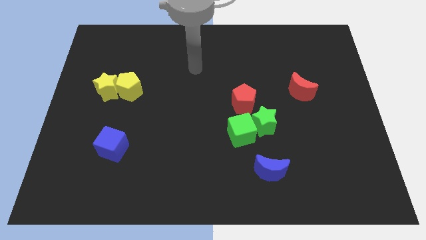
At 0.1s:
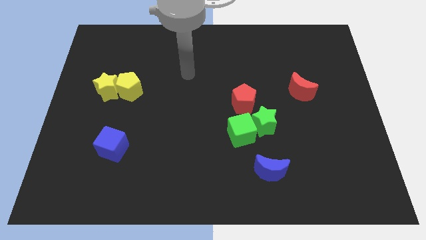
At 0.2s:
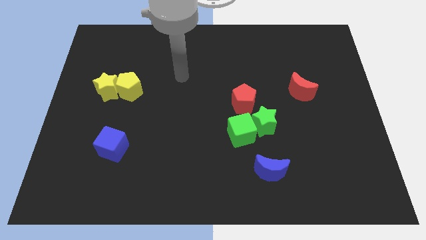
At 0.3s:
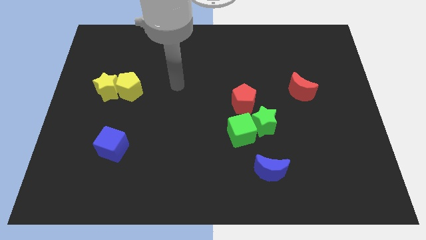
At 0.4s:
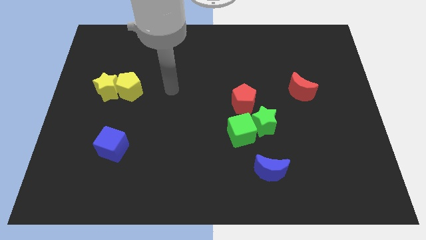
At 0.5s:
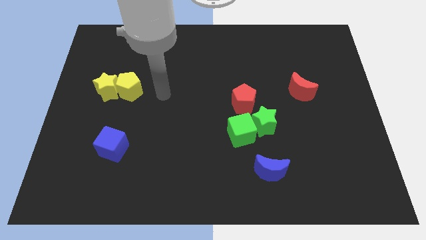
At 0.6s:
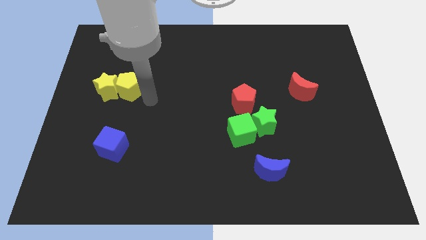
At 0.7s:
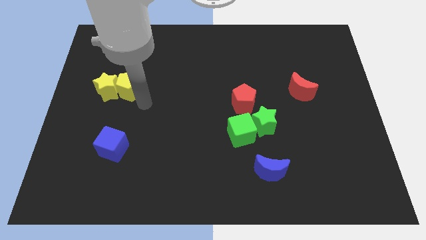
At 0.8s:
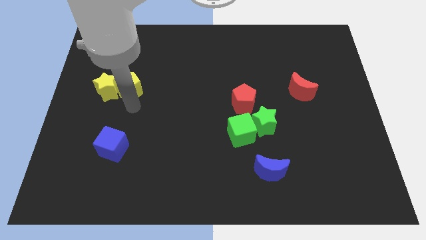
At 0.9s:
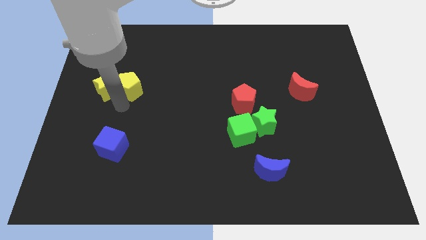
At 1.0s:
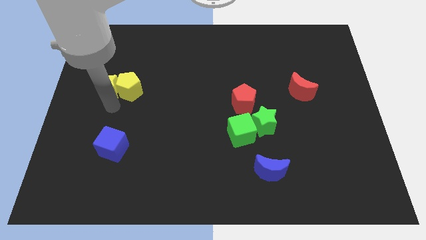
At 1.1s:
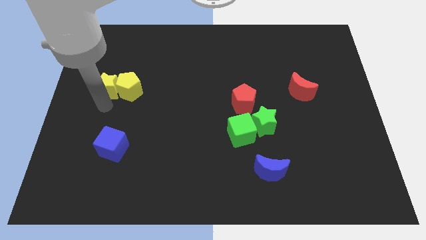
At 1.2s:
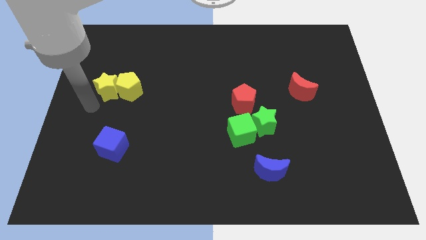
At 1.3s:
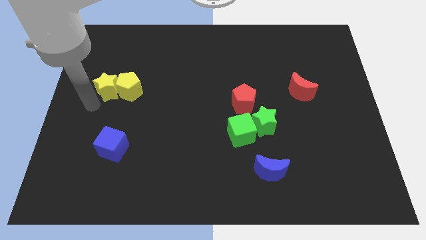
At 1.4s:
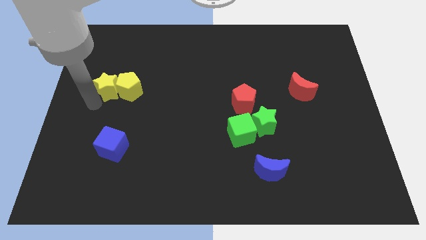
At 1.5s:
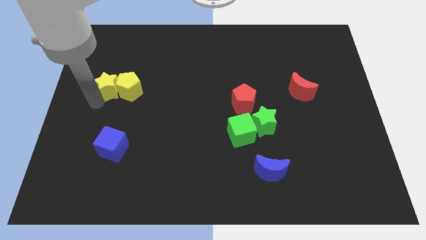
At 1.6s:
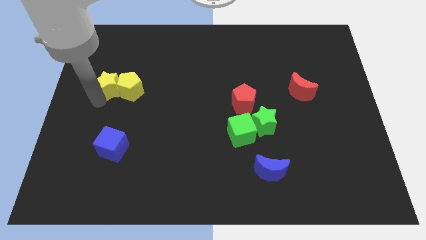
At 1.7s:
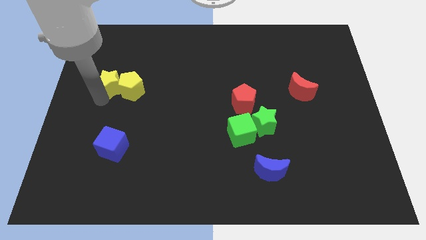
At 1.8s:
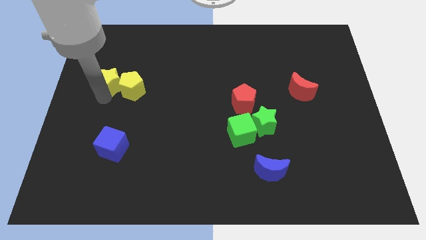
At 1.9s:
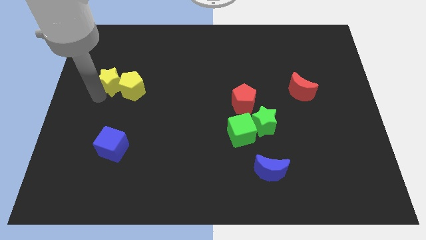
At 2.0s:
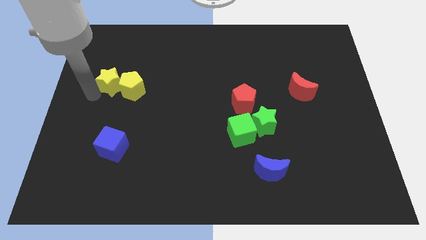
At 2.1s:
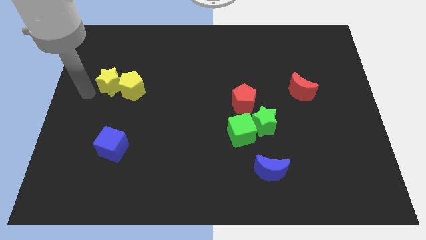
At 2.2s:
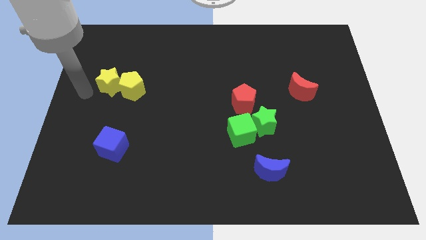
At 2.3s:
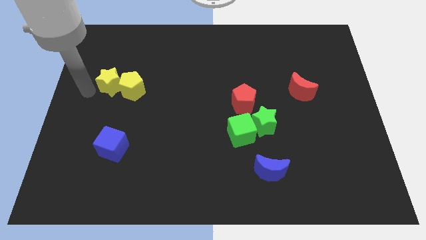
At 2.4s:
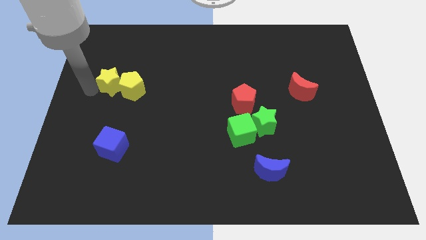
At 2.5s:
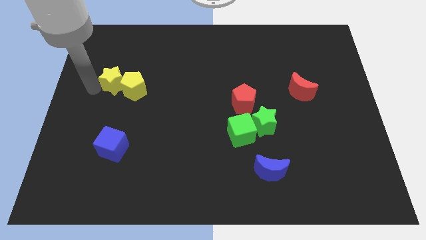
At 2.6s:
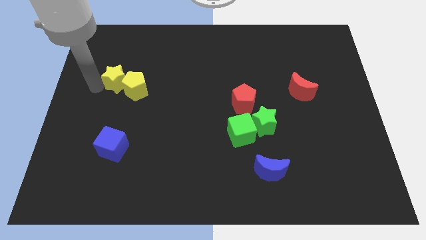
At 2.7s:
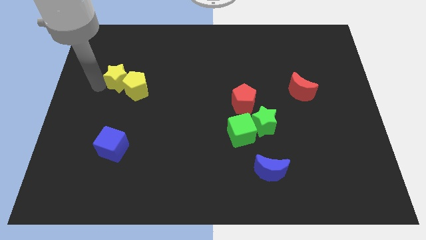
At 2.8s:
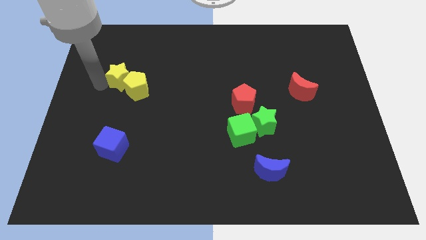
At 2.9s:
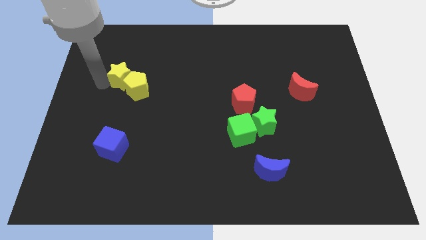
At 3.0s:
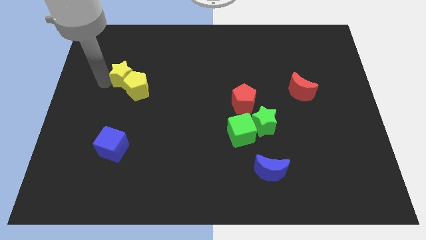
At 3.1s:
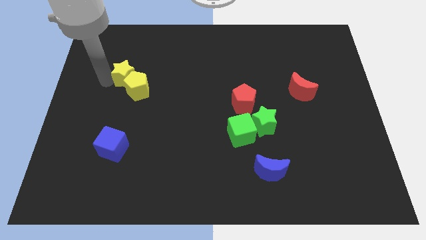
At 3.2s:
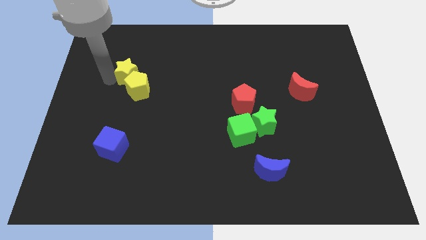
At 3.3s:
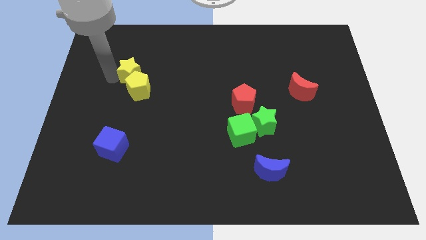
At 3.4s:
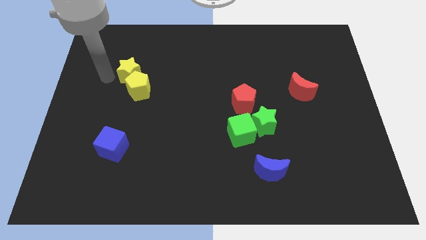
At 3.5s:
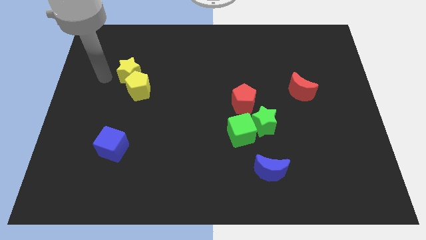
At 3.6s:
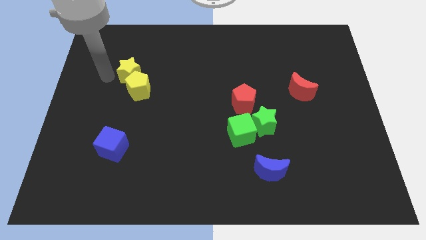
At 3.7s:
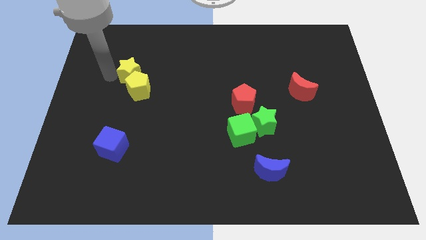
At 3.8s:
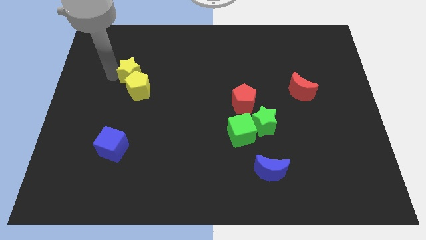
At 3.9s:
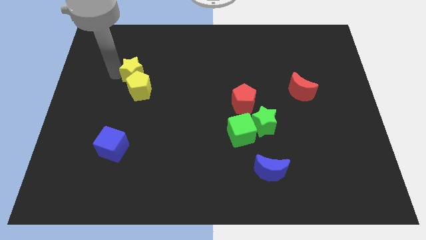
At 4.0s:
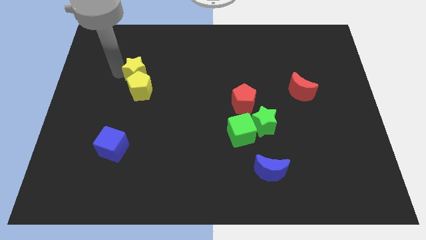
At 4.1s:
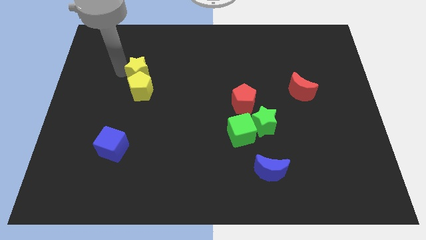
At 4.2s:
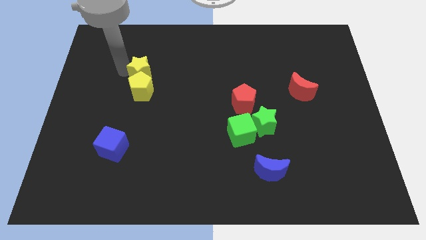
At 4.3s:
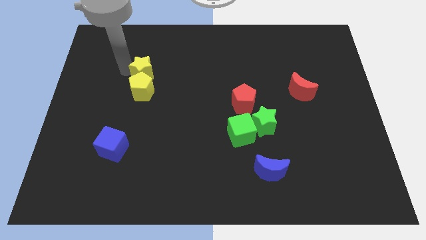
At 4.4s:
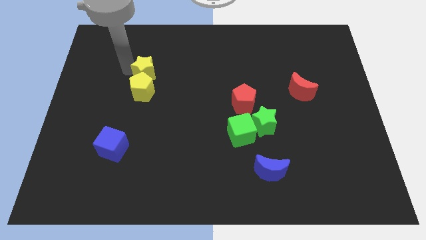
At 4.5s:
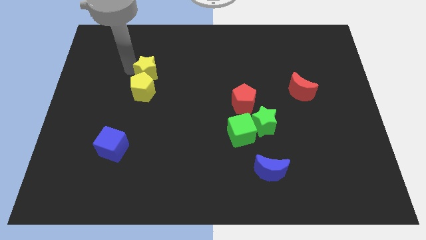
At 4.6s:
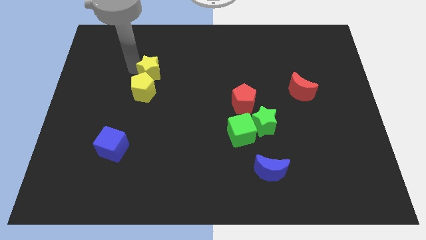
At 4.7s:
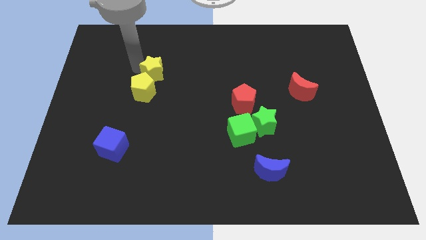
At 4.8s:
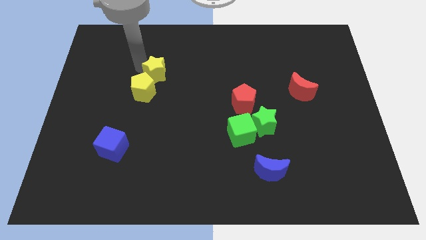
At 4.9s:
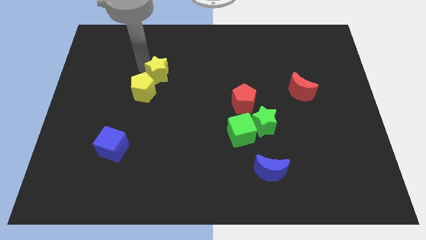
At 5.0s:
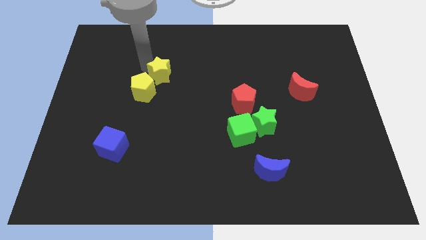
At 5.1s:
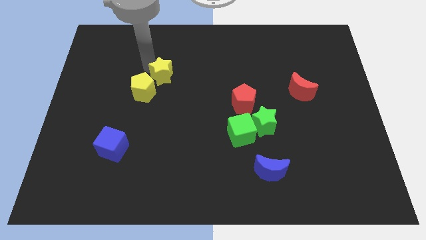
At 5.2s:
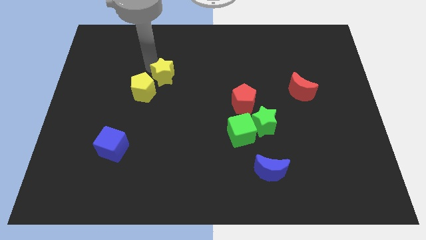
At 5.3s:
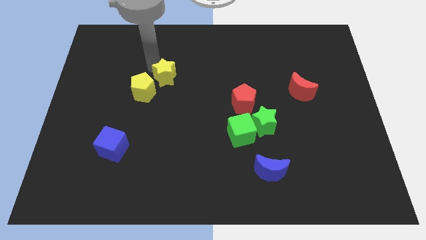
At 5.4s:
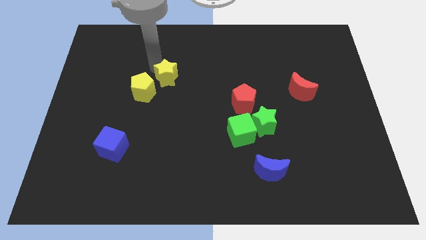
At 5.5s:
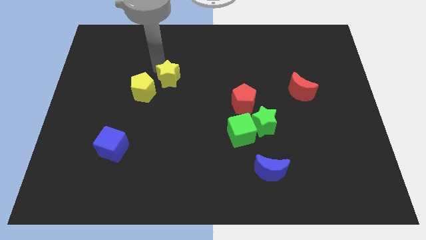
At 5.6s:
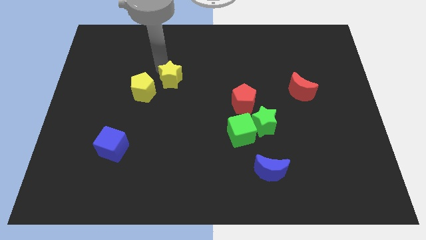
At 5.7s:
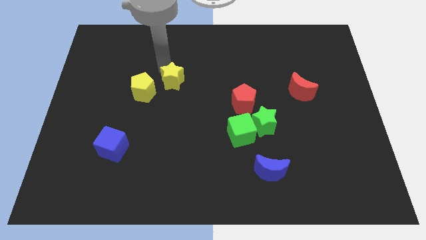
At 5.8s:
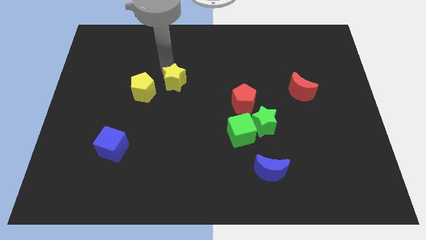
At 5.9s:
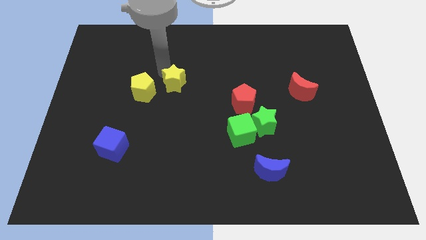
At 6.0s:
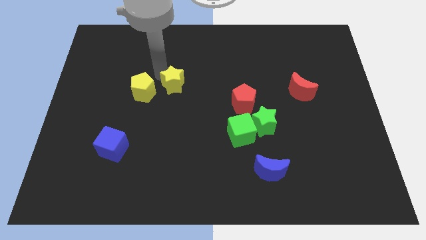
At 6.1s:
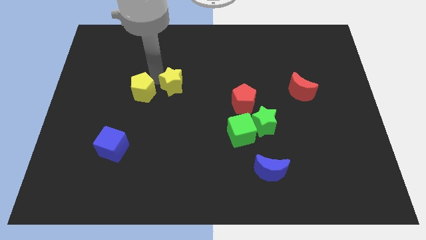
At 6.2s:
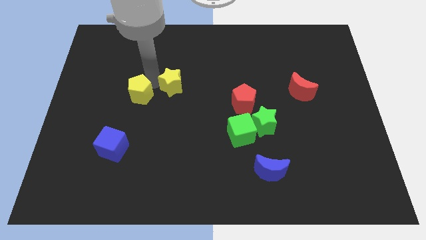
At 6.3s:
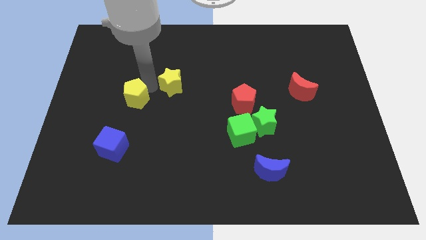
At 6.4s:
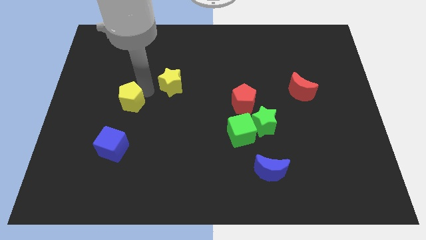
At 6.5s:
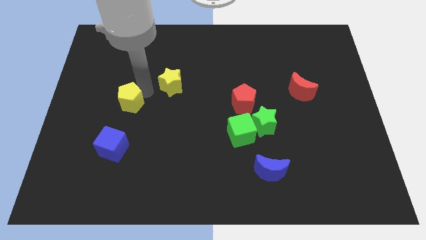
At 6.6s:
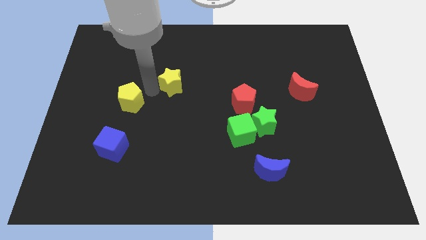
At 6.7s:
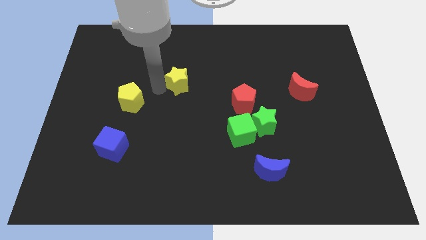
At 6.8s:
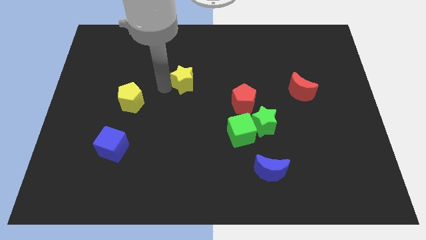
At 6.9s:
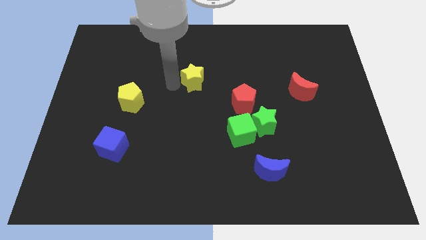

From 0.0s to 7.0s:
move the yellow star to the right

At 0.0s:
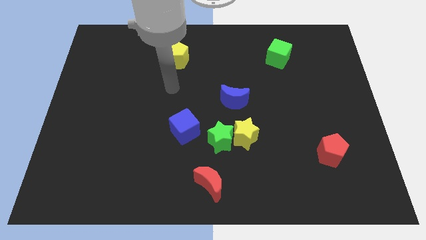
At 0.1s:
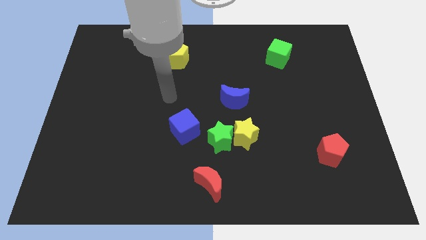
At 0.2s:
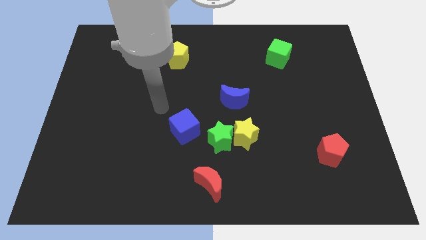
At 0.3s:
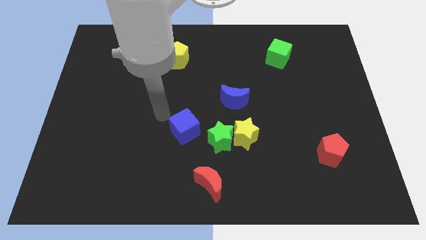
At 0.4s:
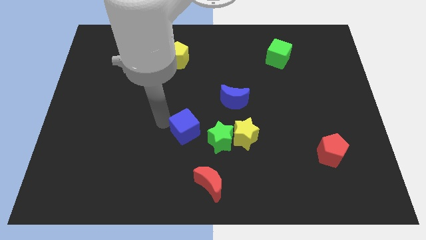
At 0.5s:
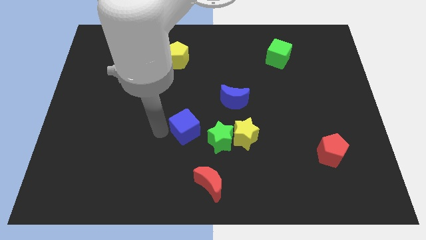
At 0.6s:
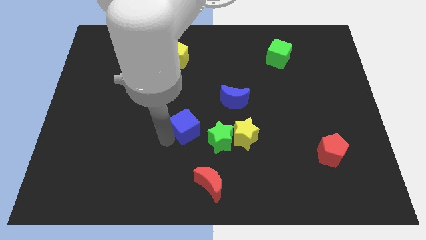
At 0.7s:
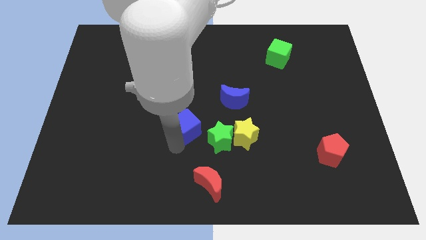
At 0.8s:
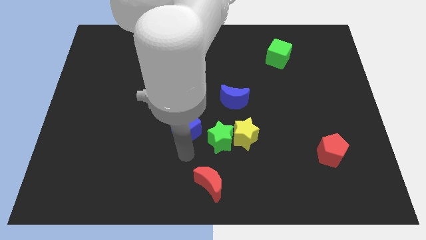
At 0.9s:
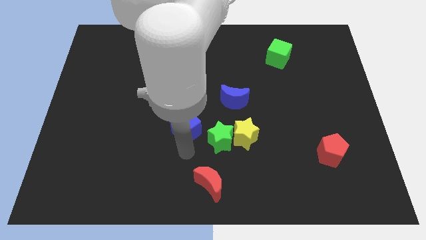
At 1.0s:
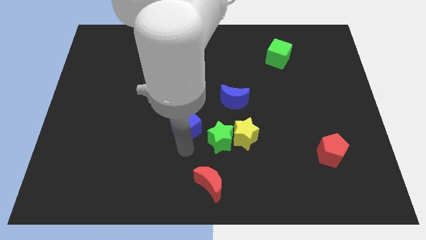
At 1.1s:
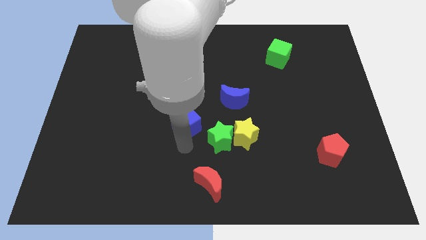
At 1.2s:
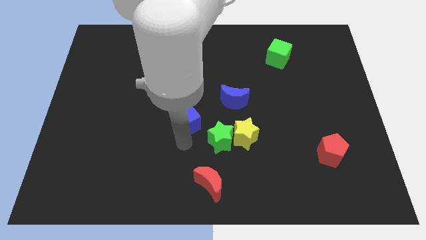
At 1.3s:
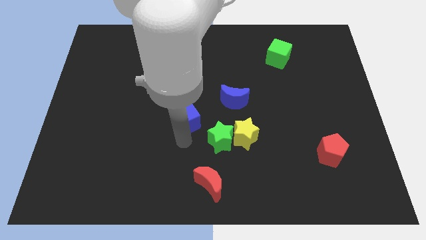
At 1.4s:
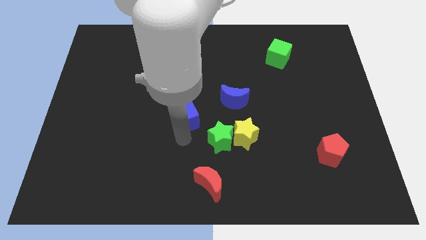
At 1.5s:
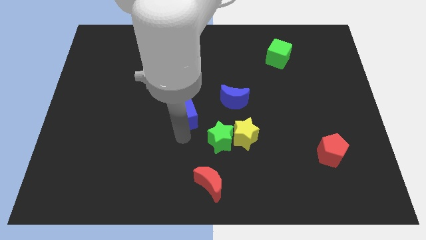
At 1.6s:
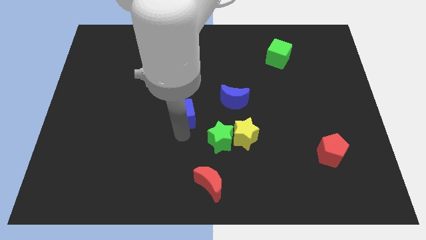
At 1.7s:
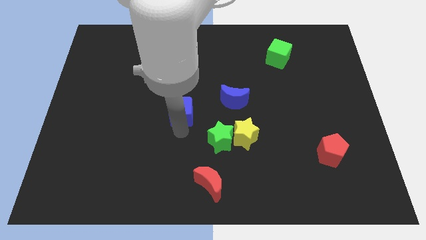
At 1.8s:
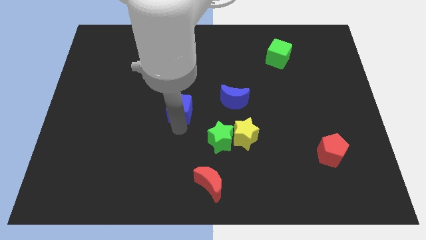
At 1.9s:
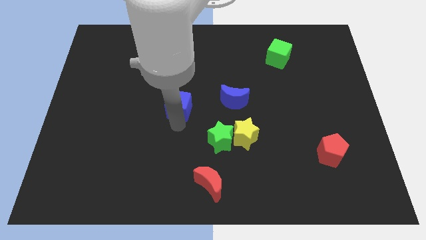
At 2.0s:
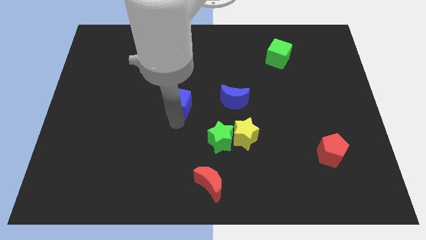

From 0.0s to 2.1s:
slightly push the blue cube up
